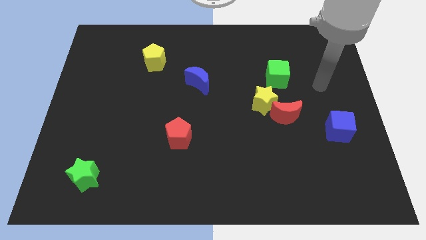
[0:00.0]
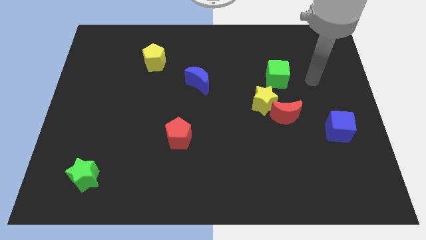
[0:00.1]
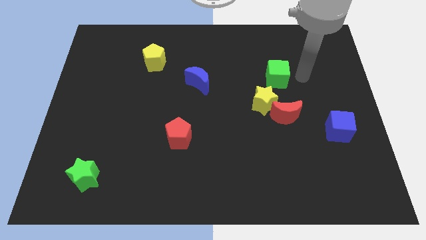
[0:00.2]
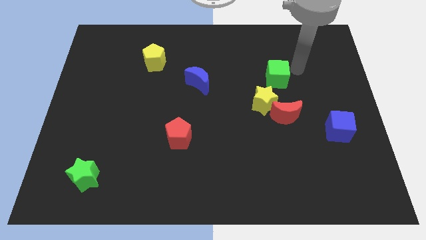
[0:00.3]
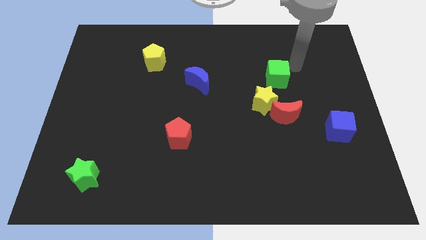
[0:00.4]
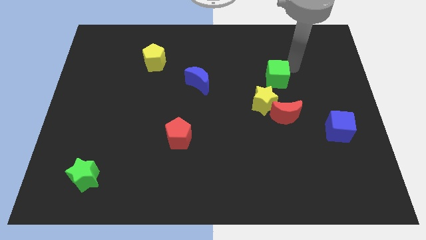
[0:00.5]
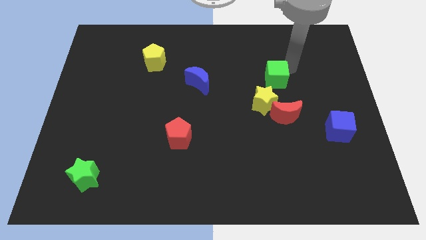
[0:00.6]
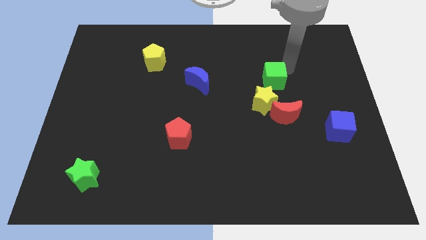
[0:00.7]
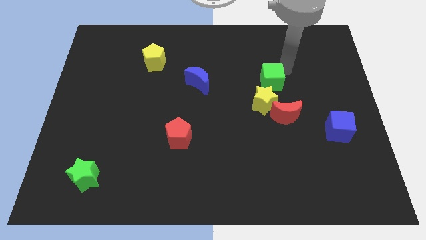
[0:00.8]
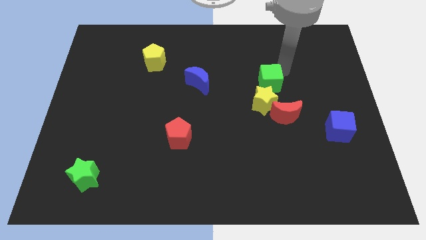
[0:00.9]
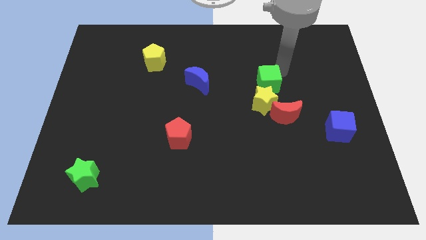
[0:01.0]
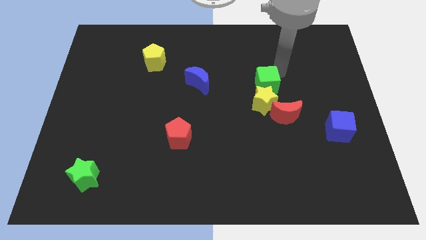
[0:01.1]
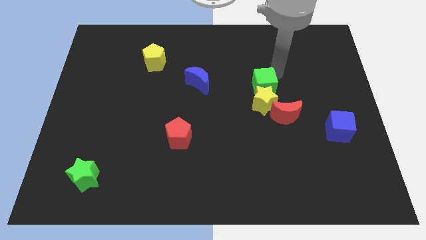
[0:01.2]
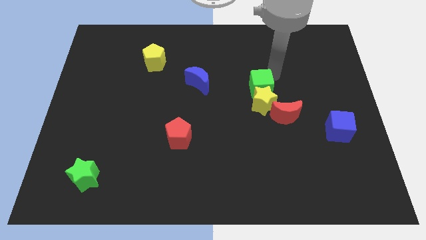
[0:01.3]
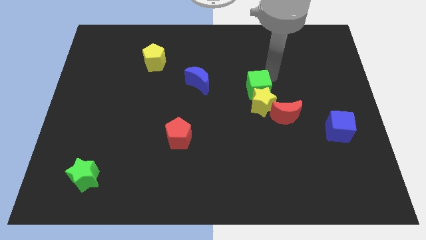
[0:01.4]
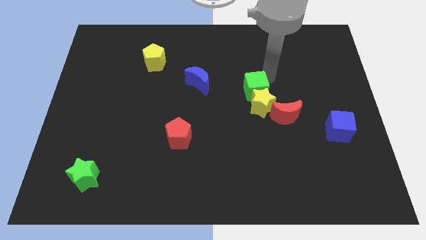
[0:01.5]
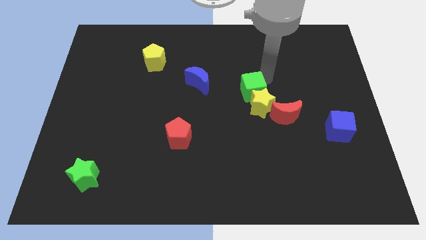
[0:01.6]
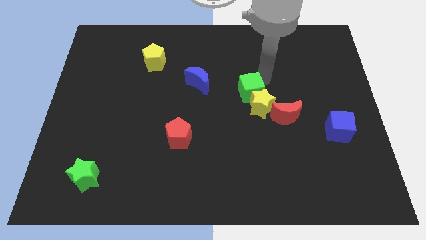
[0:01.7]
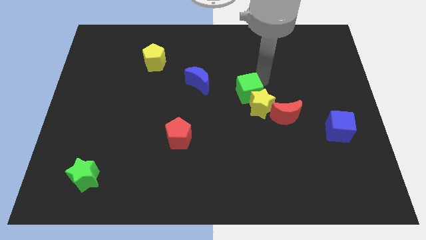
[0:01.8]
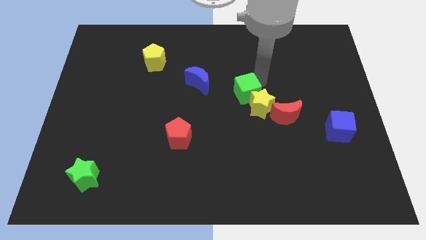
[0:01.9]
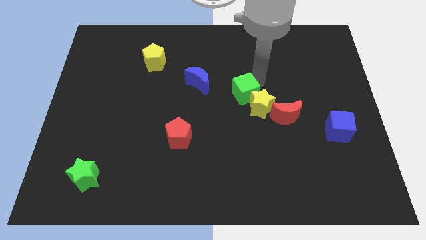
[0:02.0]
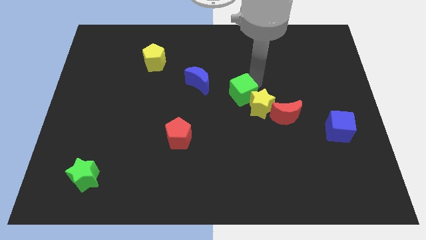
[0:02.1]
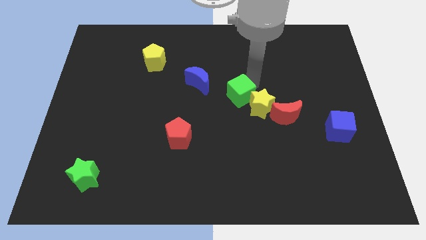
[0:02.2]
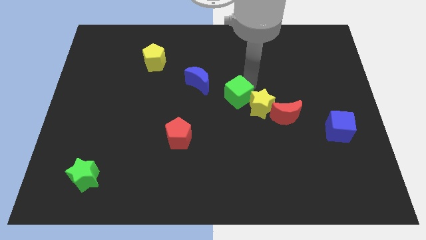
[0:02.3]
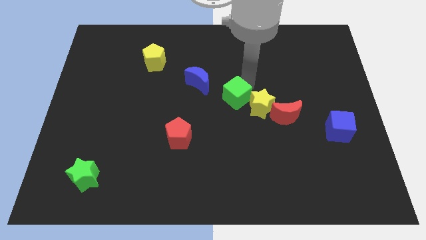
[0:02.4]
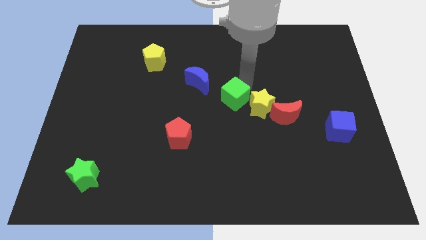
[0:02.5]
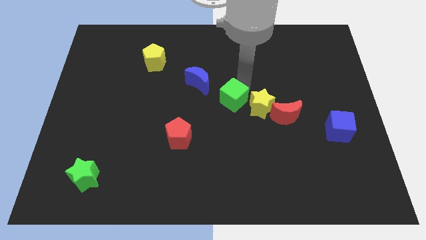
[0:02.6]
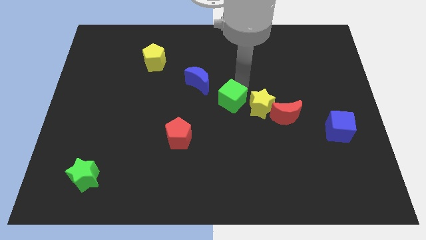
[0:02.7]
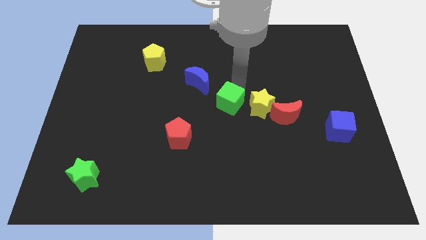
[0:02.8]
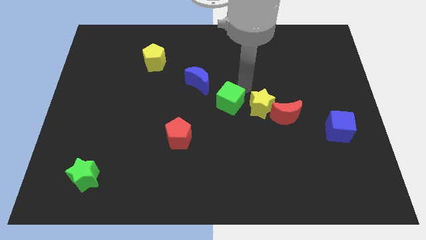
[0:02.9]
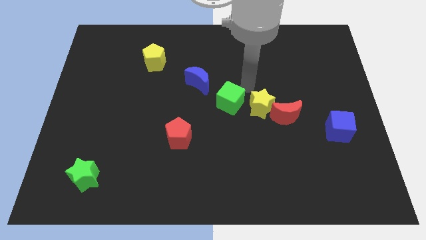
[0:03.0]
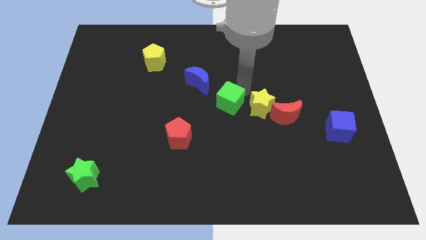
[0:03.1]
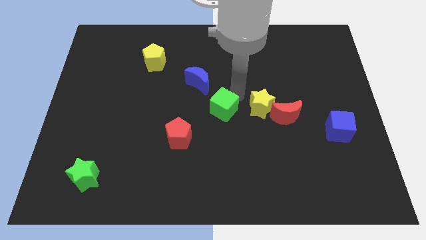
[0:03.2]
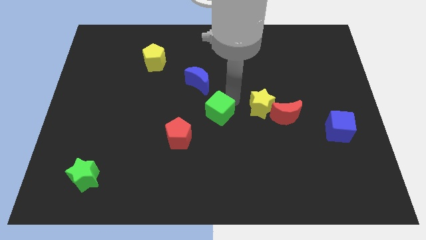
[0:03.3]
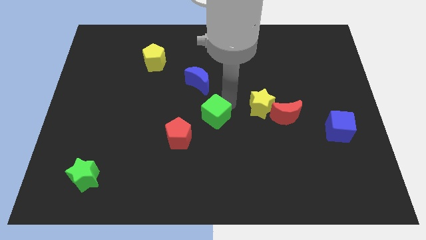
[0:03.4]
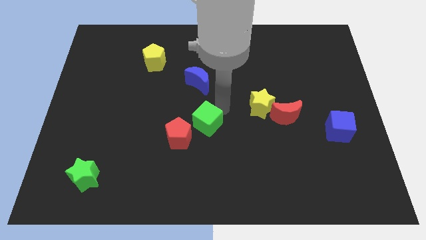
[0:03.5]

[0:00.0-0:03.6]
move the green cube downwards and to the left

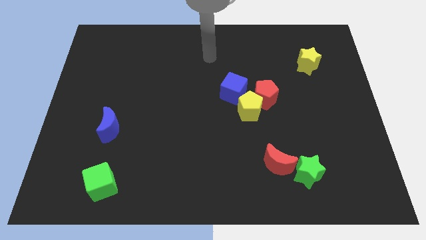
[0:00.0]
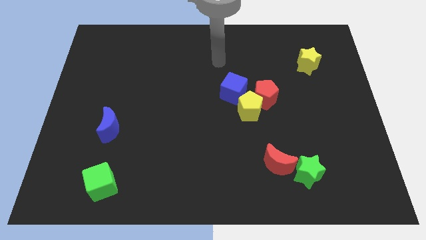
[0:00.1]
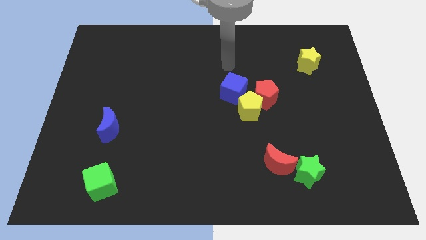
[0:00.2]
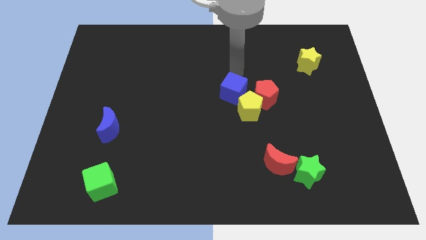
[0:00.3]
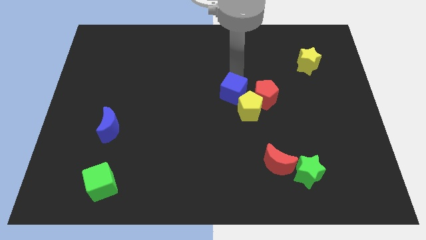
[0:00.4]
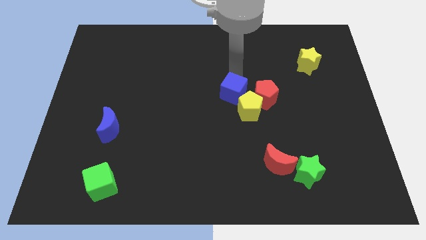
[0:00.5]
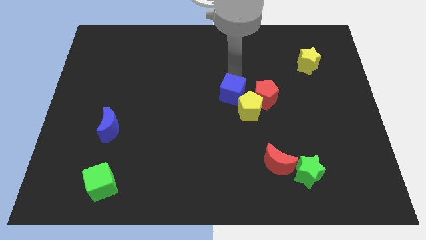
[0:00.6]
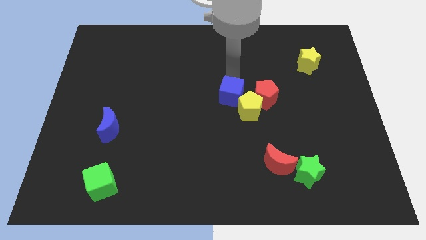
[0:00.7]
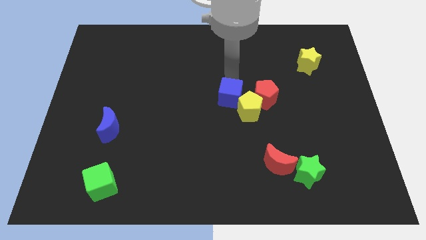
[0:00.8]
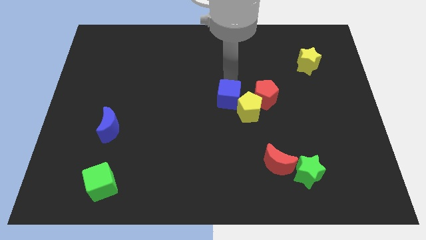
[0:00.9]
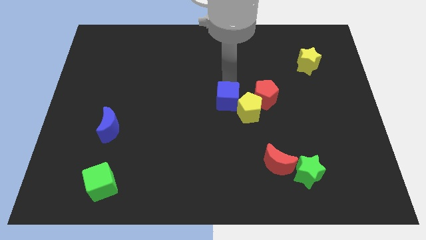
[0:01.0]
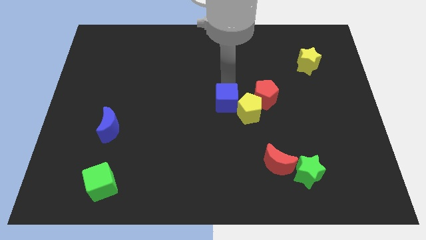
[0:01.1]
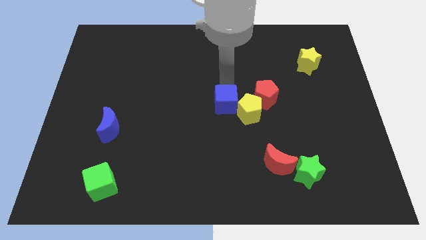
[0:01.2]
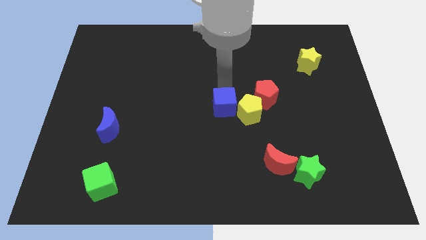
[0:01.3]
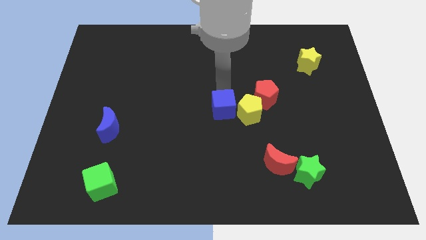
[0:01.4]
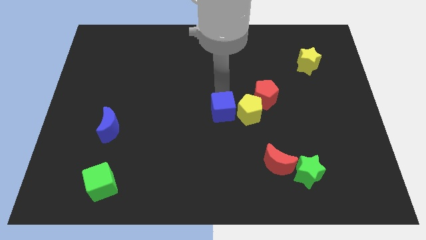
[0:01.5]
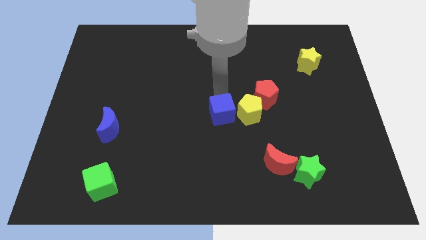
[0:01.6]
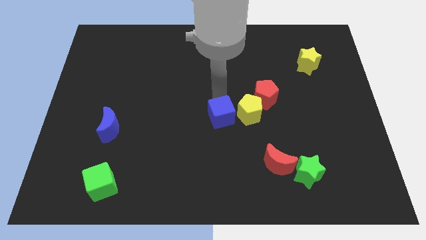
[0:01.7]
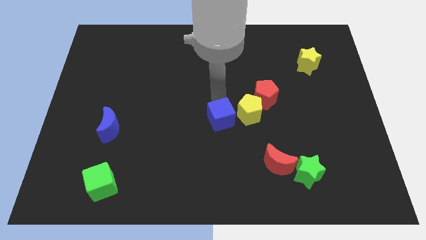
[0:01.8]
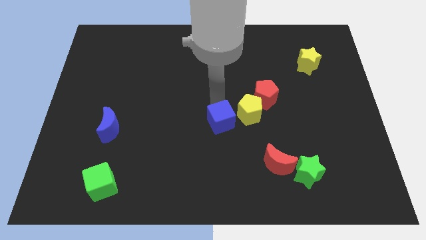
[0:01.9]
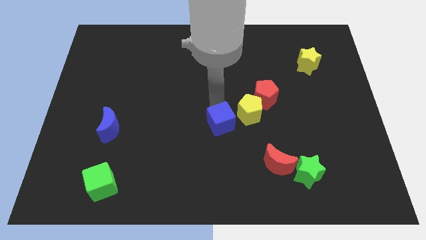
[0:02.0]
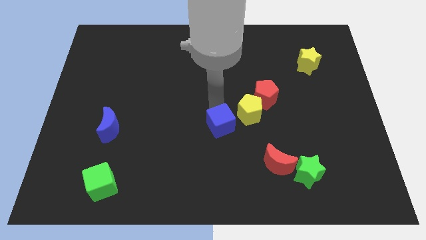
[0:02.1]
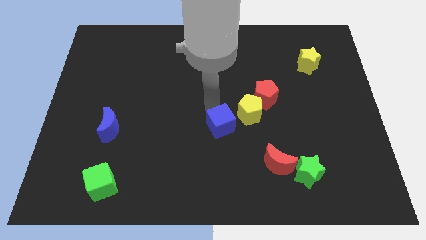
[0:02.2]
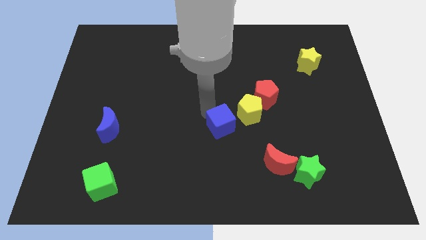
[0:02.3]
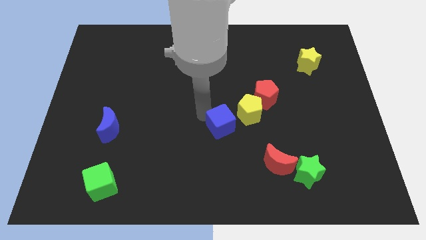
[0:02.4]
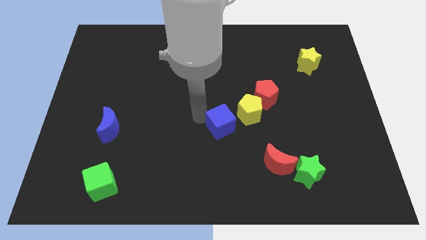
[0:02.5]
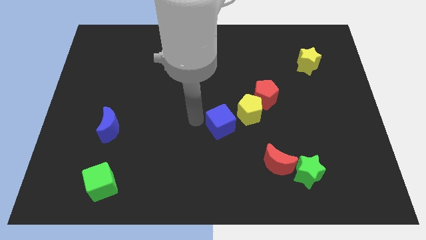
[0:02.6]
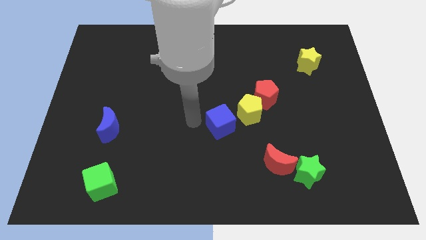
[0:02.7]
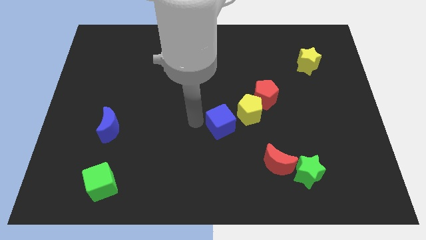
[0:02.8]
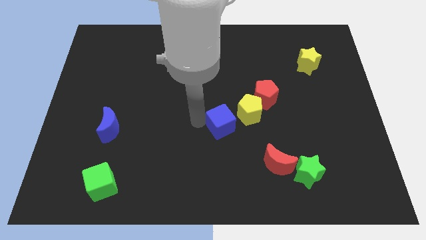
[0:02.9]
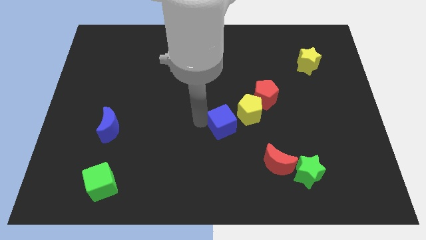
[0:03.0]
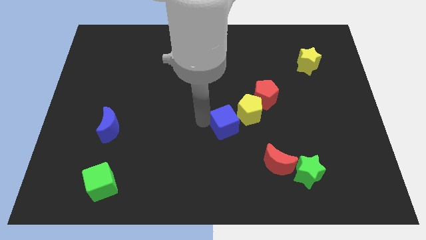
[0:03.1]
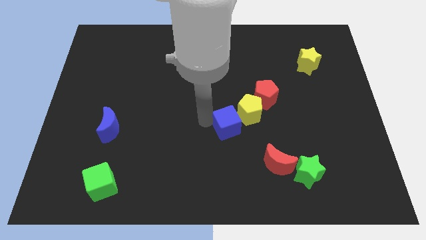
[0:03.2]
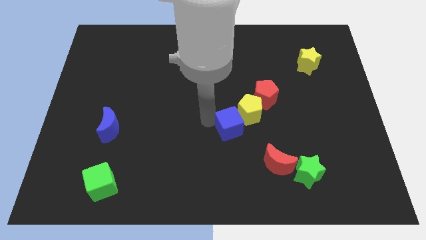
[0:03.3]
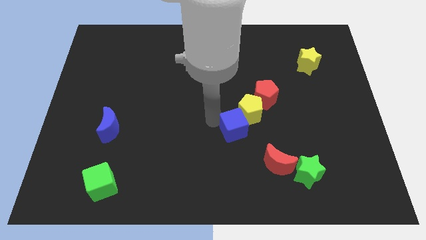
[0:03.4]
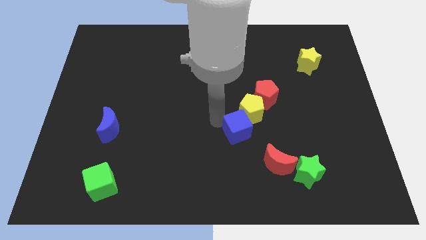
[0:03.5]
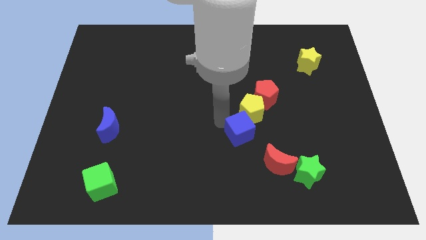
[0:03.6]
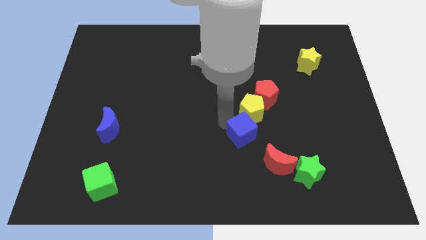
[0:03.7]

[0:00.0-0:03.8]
slide the blue cube a bit downwards and right

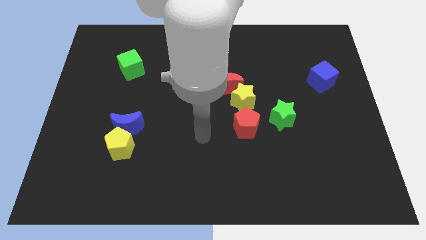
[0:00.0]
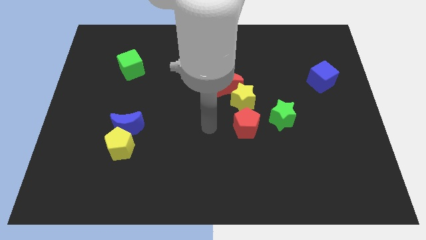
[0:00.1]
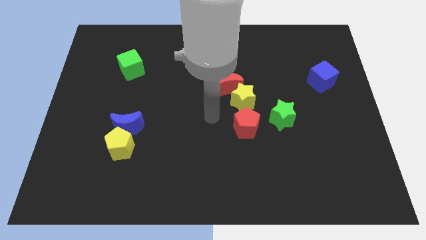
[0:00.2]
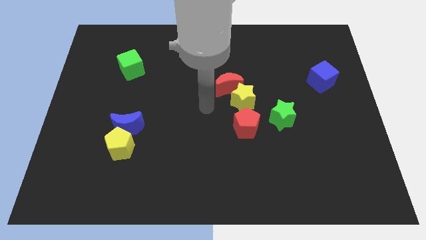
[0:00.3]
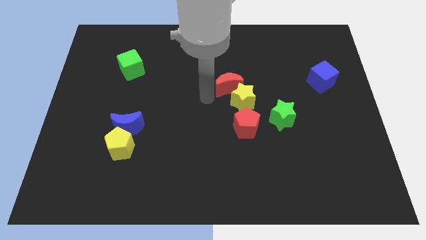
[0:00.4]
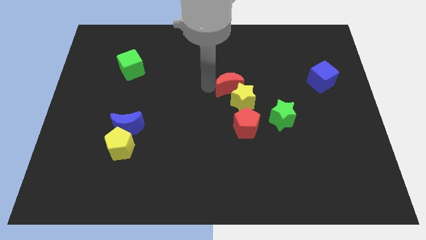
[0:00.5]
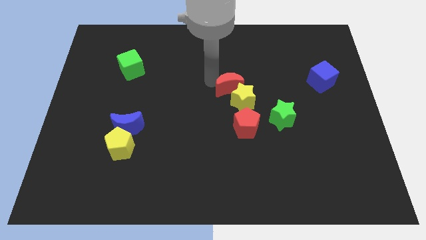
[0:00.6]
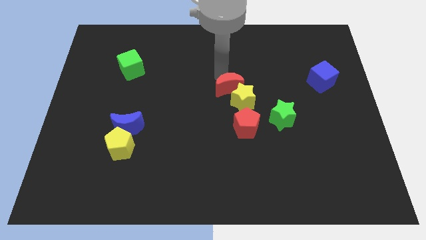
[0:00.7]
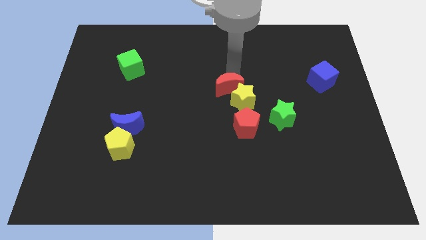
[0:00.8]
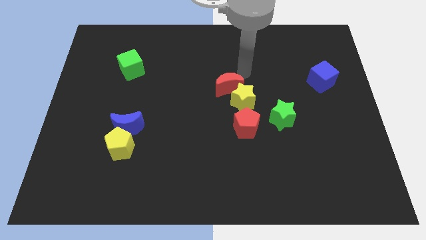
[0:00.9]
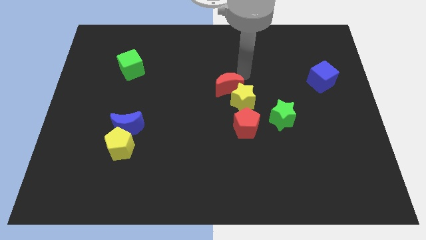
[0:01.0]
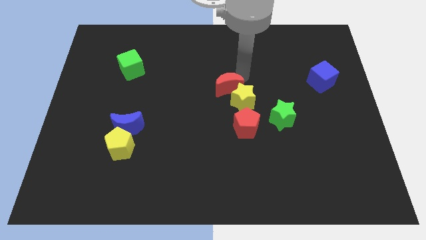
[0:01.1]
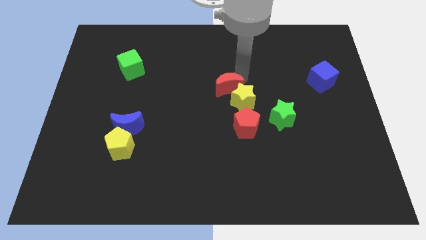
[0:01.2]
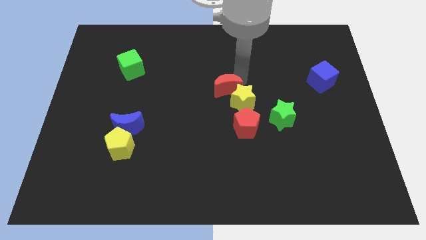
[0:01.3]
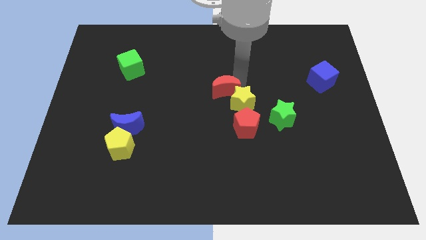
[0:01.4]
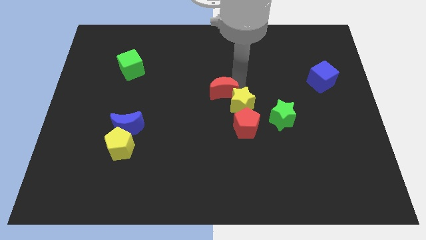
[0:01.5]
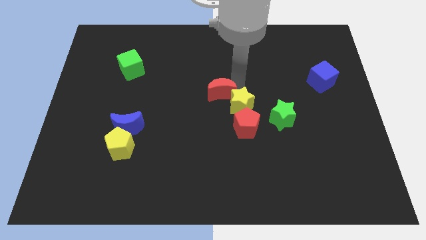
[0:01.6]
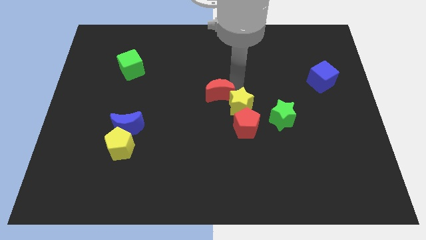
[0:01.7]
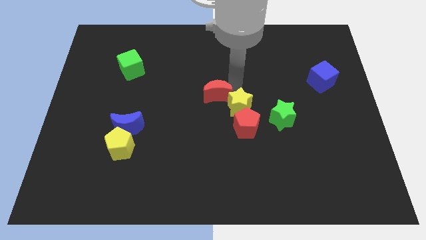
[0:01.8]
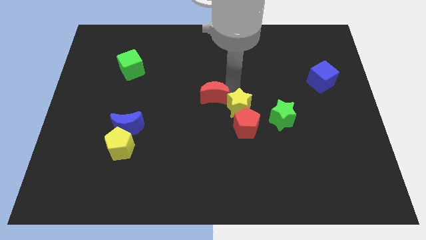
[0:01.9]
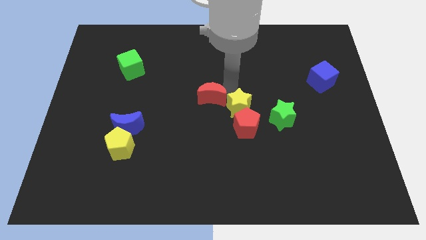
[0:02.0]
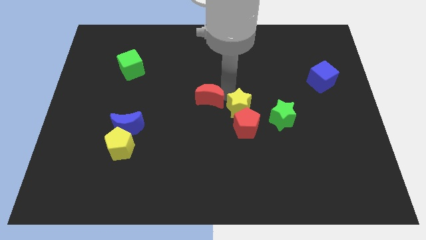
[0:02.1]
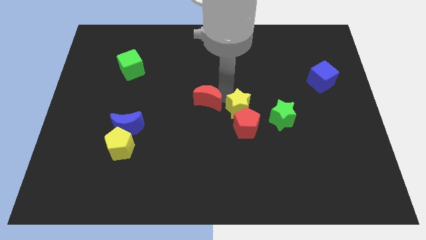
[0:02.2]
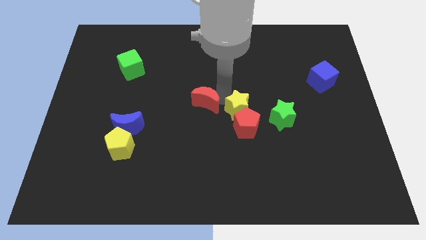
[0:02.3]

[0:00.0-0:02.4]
move the red moon slightly downwards and left
